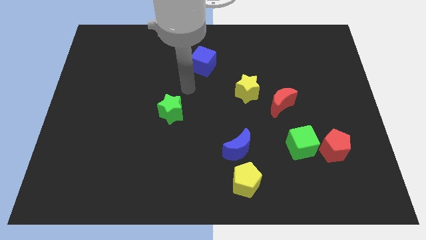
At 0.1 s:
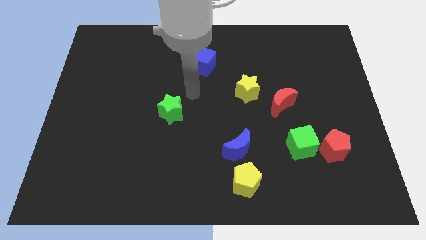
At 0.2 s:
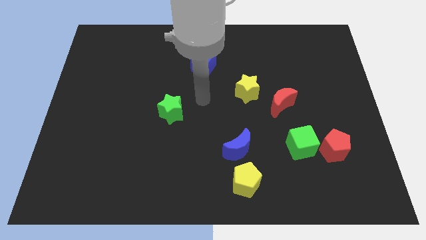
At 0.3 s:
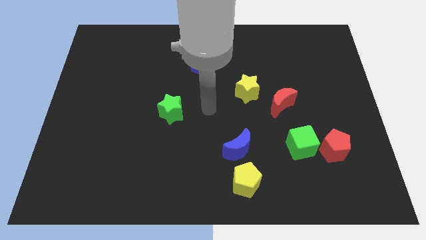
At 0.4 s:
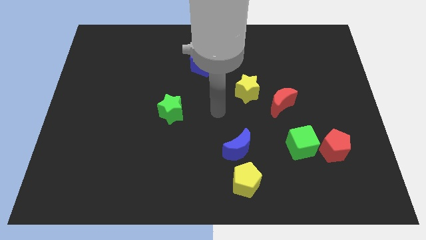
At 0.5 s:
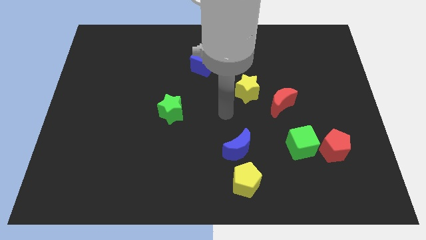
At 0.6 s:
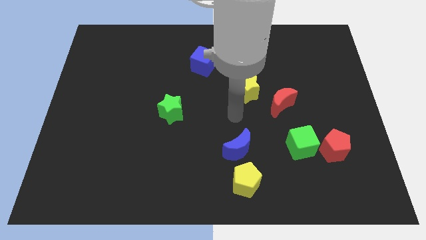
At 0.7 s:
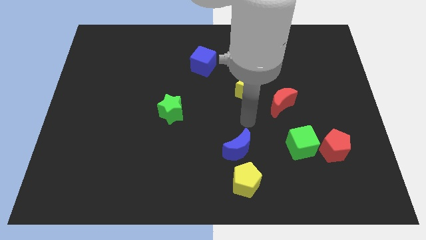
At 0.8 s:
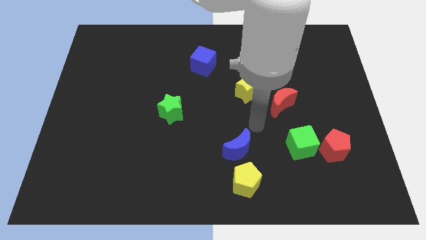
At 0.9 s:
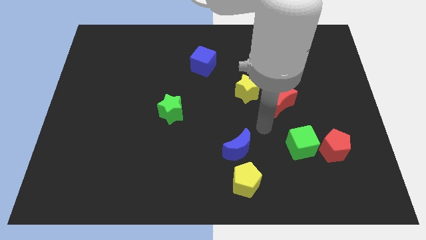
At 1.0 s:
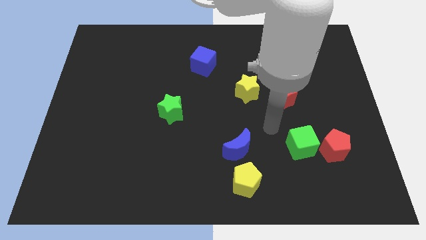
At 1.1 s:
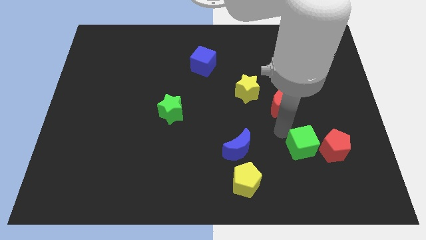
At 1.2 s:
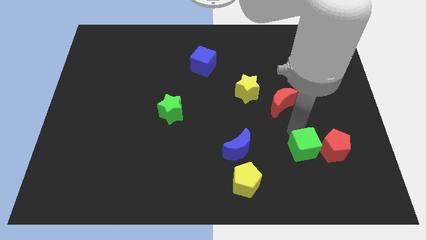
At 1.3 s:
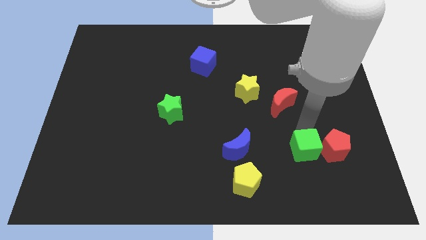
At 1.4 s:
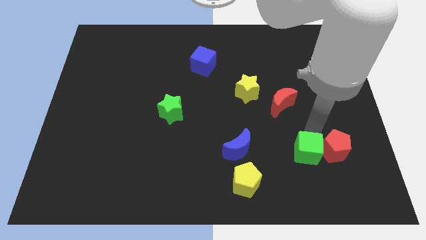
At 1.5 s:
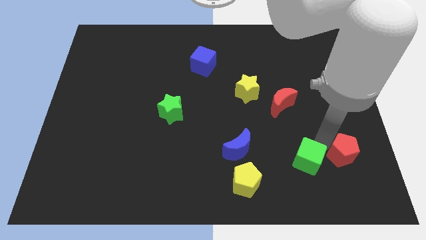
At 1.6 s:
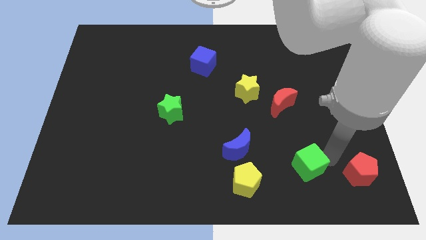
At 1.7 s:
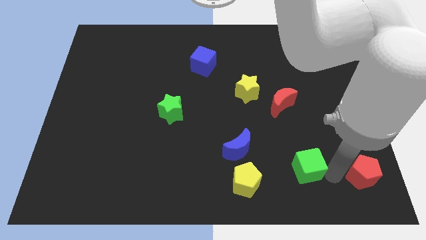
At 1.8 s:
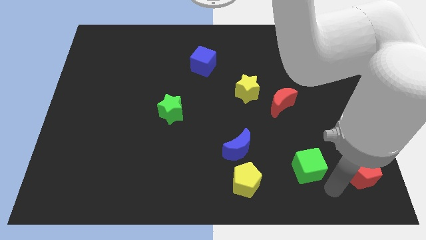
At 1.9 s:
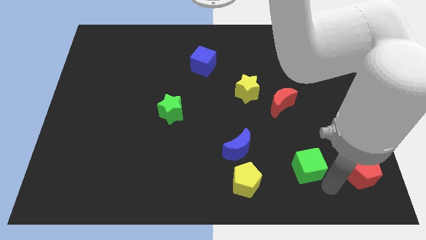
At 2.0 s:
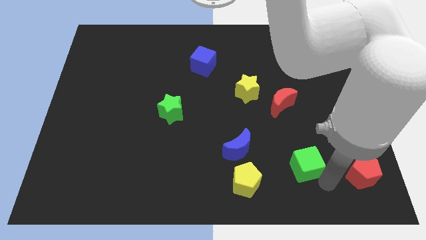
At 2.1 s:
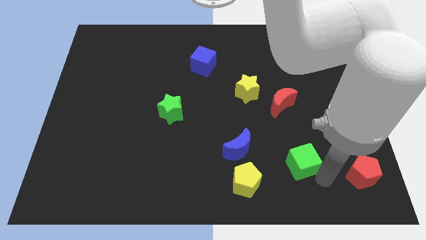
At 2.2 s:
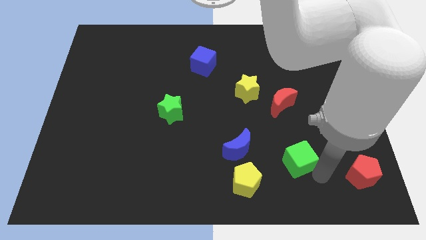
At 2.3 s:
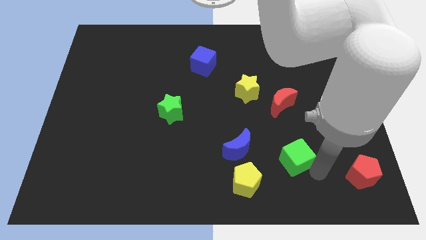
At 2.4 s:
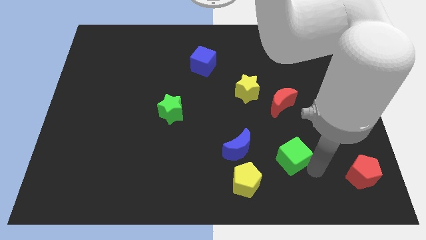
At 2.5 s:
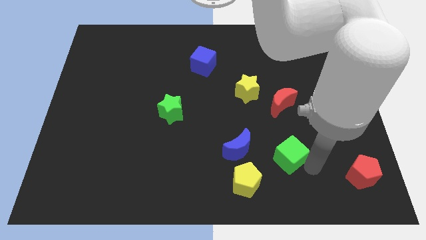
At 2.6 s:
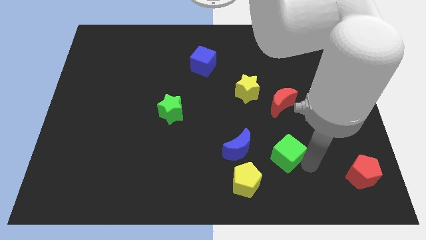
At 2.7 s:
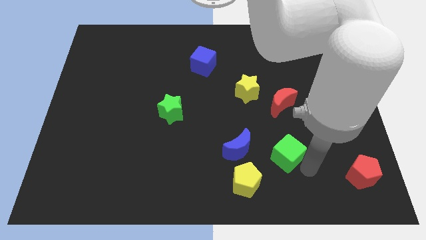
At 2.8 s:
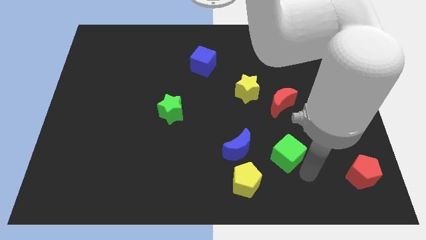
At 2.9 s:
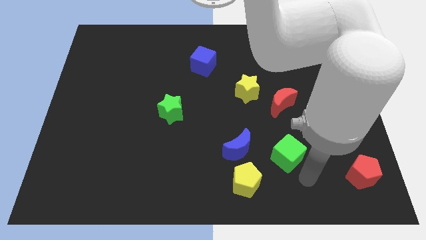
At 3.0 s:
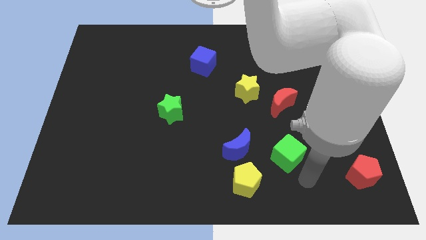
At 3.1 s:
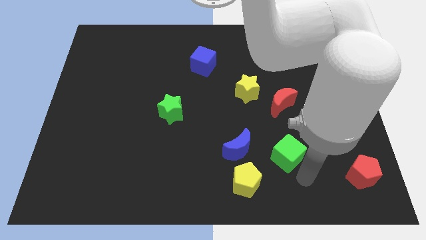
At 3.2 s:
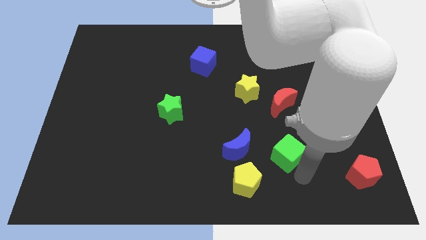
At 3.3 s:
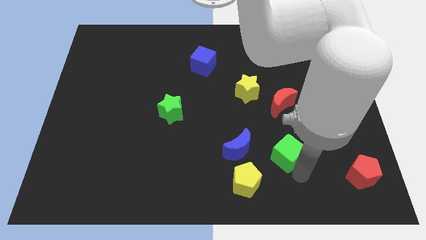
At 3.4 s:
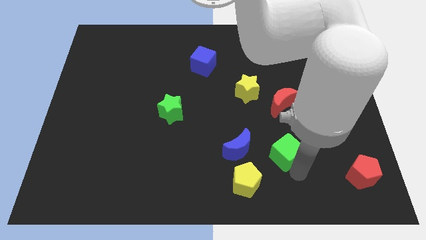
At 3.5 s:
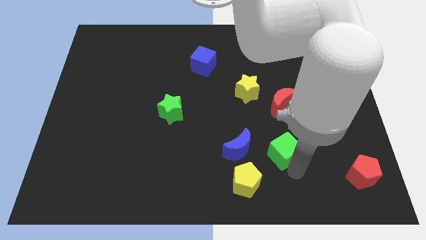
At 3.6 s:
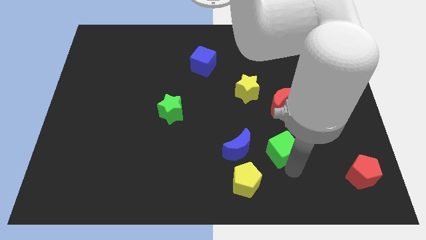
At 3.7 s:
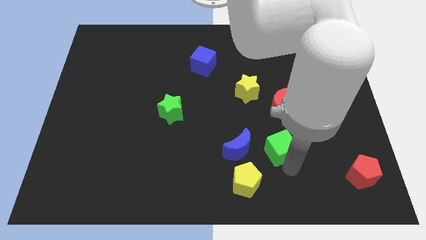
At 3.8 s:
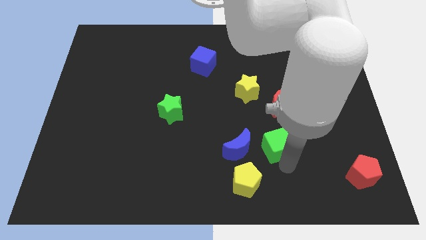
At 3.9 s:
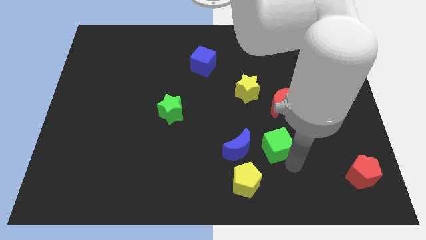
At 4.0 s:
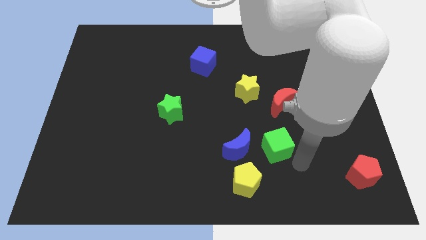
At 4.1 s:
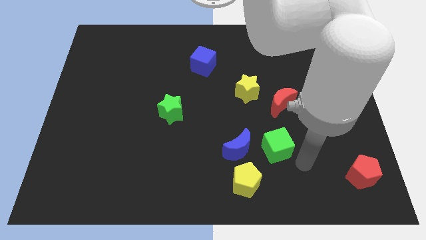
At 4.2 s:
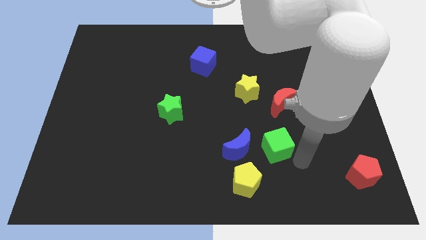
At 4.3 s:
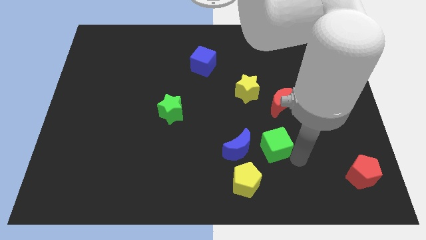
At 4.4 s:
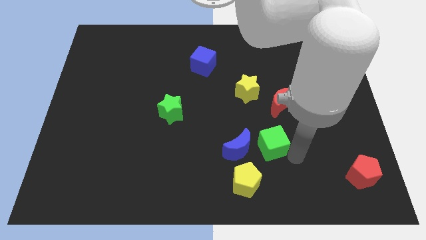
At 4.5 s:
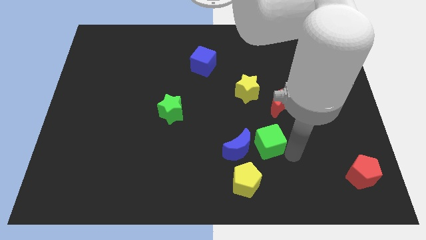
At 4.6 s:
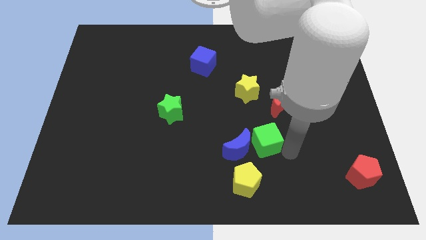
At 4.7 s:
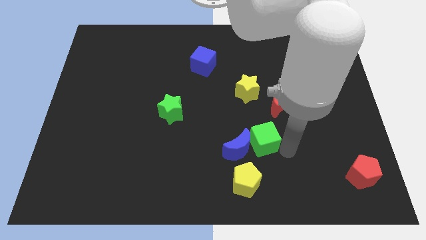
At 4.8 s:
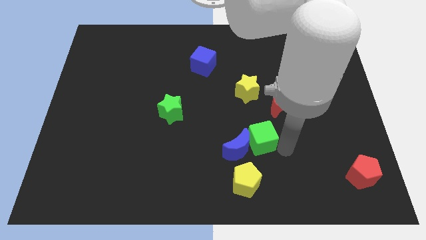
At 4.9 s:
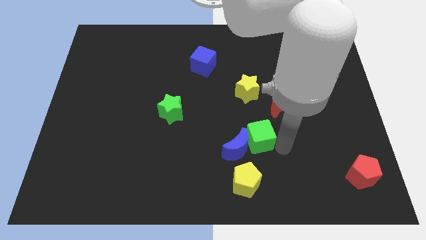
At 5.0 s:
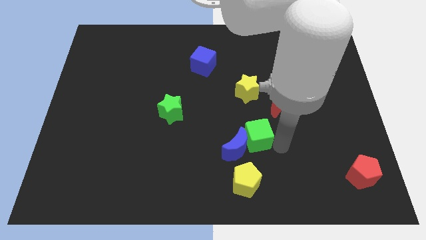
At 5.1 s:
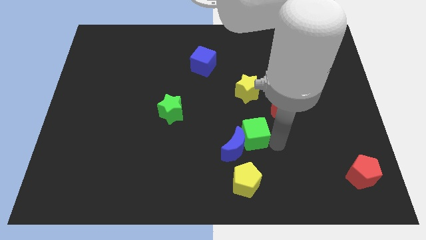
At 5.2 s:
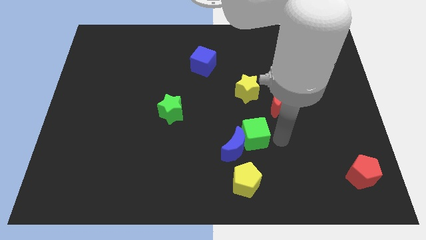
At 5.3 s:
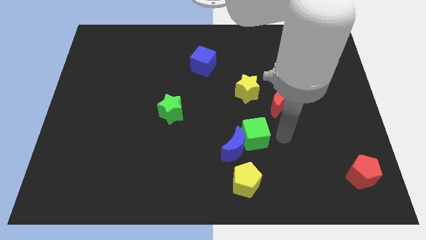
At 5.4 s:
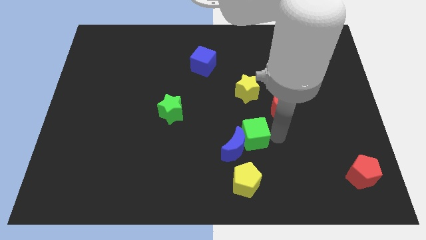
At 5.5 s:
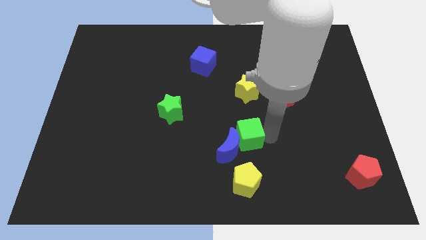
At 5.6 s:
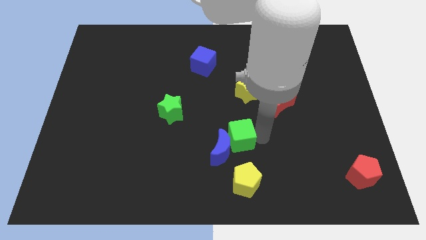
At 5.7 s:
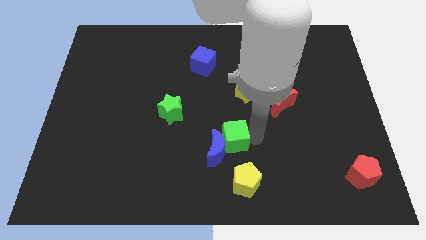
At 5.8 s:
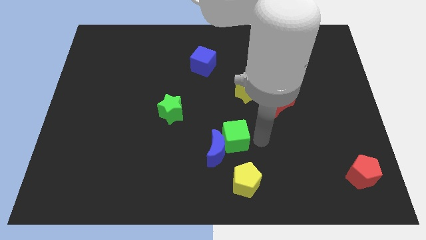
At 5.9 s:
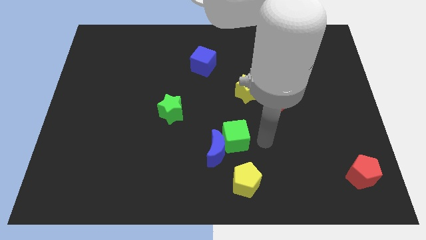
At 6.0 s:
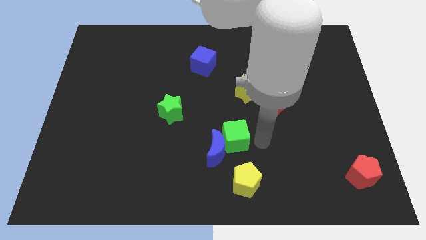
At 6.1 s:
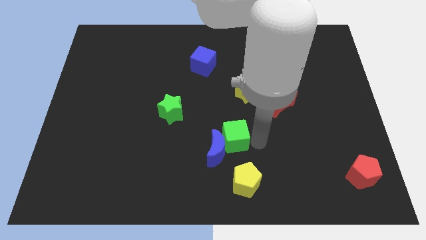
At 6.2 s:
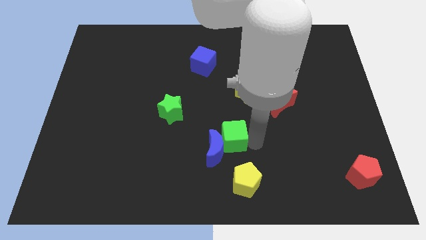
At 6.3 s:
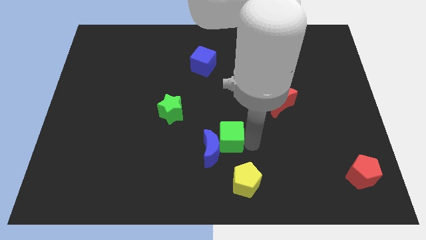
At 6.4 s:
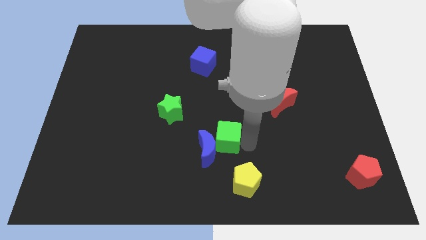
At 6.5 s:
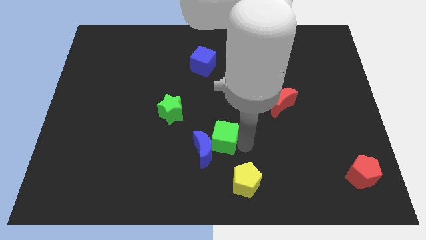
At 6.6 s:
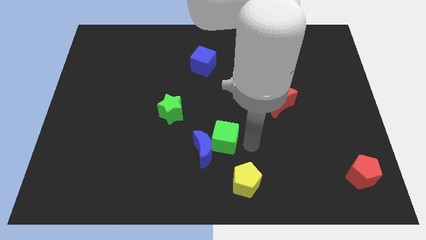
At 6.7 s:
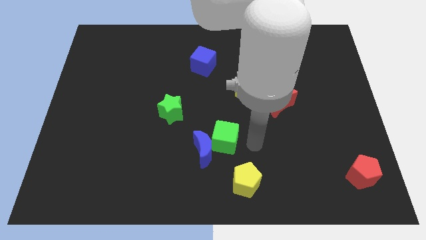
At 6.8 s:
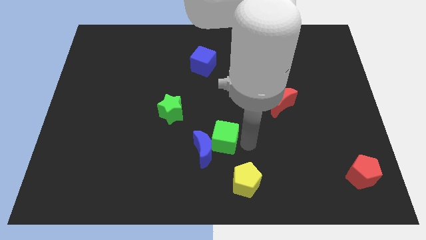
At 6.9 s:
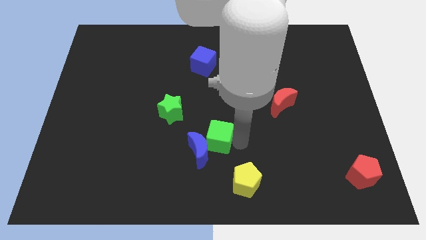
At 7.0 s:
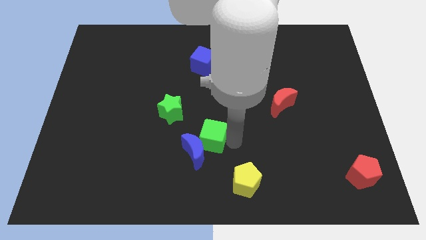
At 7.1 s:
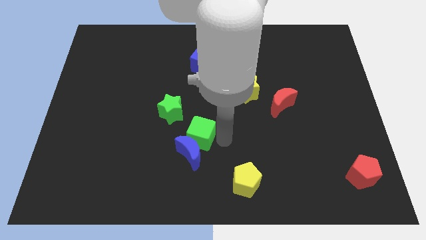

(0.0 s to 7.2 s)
slide the green cube left

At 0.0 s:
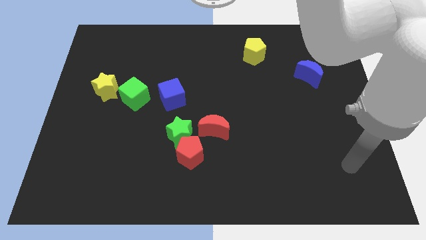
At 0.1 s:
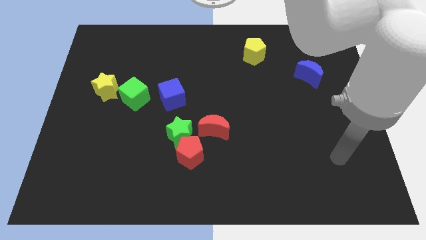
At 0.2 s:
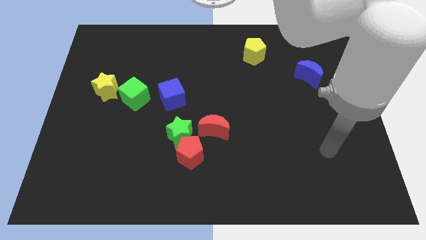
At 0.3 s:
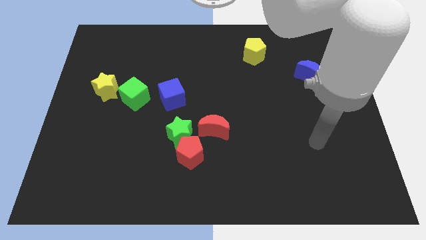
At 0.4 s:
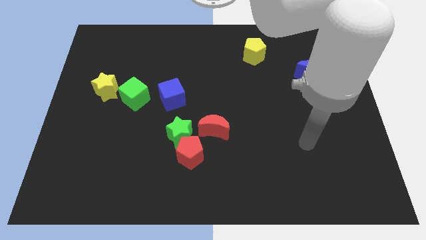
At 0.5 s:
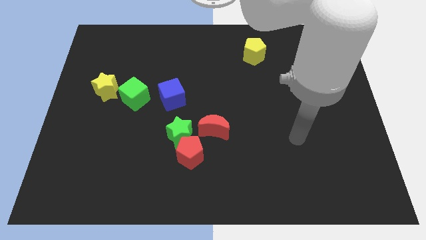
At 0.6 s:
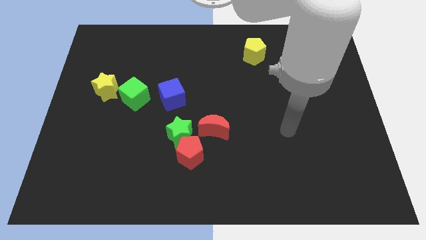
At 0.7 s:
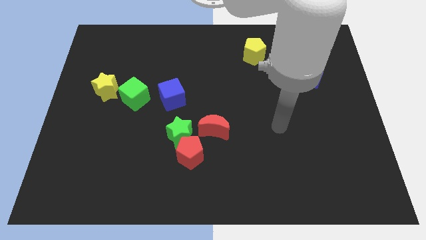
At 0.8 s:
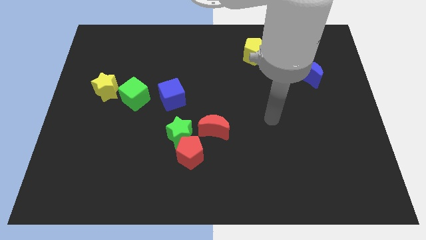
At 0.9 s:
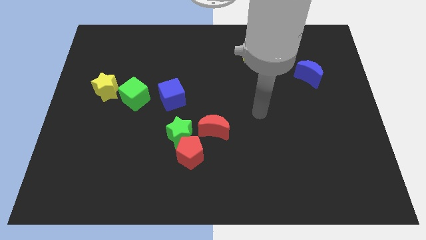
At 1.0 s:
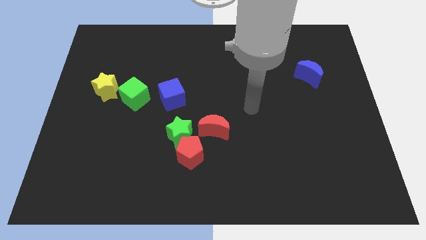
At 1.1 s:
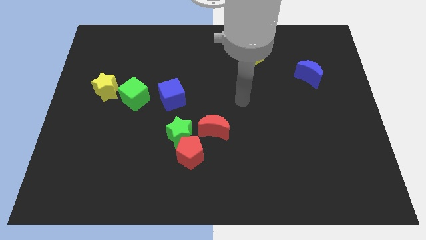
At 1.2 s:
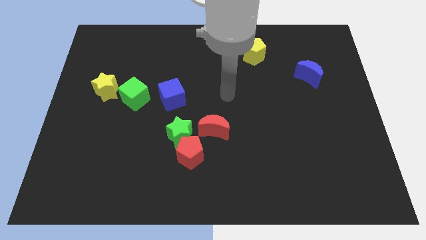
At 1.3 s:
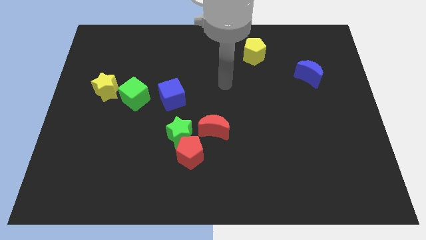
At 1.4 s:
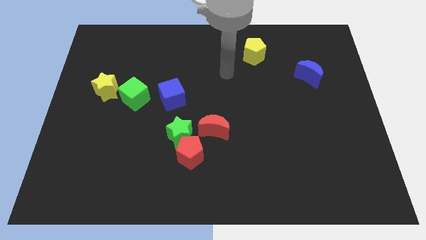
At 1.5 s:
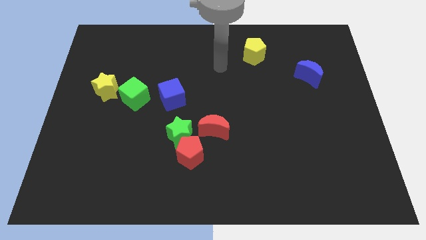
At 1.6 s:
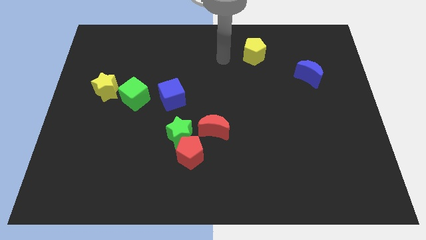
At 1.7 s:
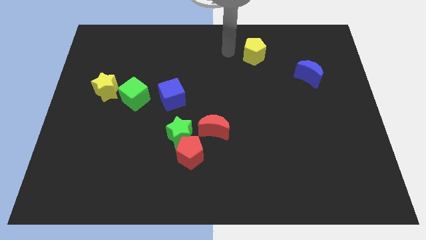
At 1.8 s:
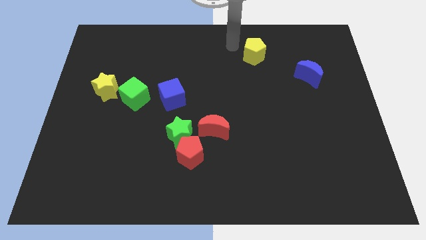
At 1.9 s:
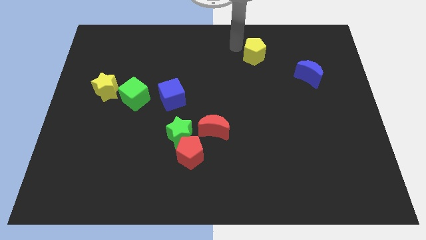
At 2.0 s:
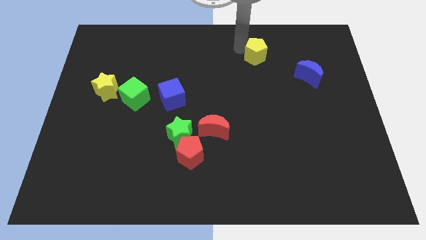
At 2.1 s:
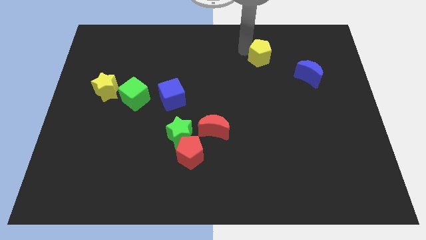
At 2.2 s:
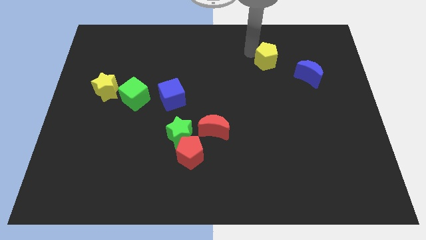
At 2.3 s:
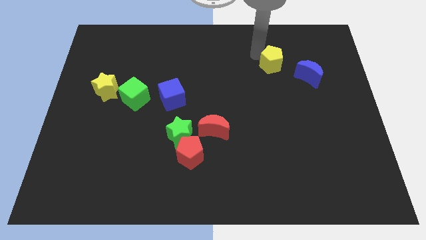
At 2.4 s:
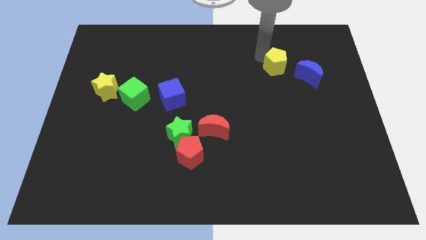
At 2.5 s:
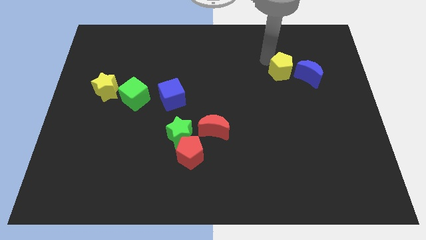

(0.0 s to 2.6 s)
move the yellow pentagon downwards and to the right diagonally a little
